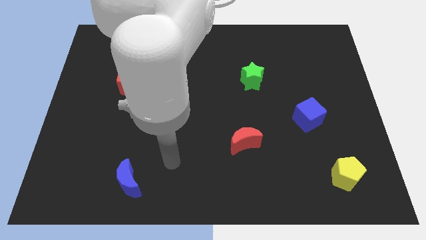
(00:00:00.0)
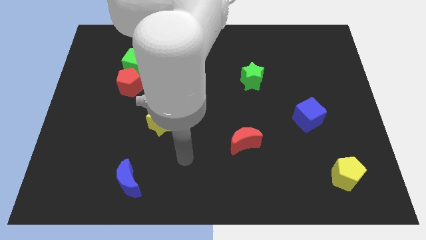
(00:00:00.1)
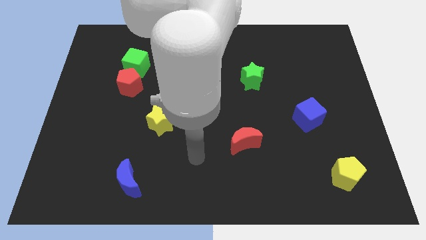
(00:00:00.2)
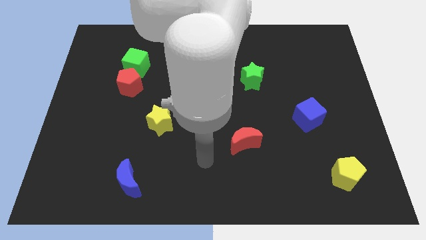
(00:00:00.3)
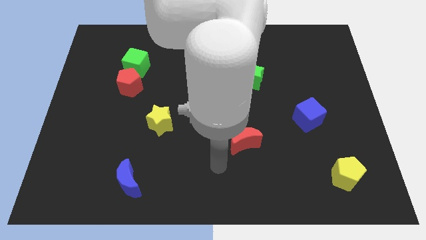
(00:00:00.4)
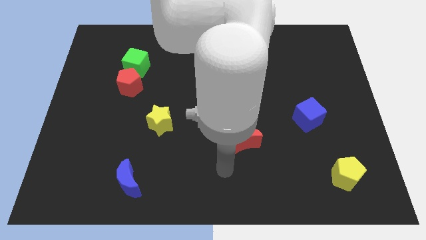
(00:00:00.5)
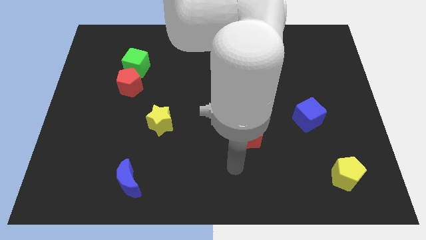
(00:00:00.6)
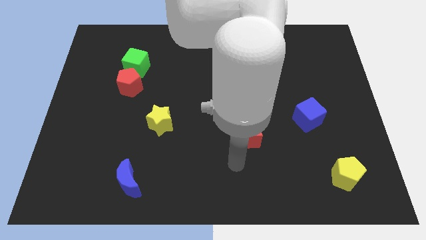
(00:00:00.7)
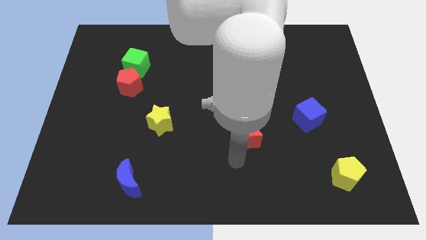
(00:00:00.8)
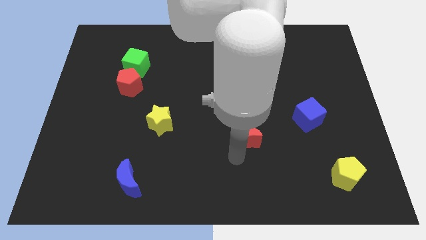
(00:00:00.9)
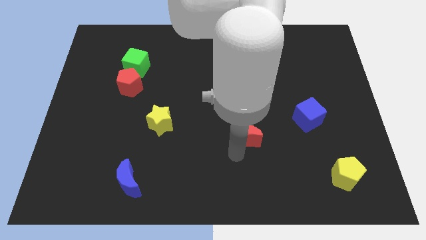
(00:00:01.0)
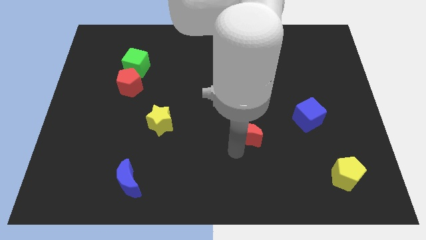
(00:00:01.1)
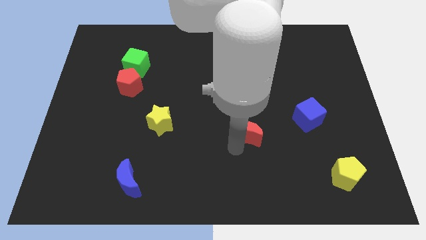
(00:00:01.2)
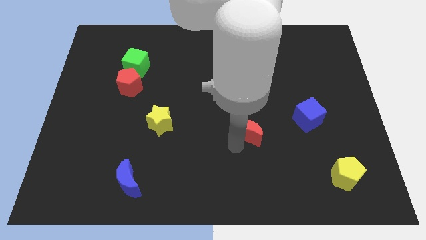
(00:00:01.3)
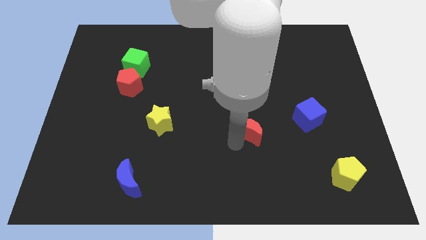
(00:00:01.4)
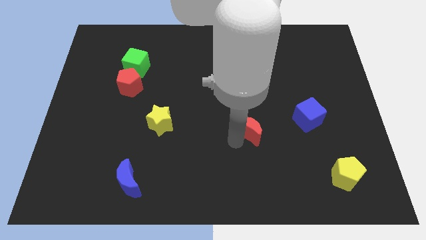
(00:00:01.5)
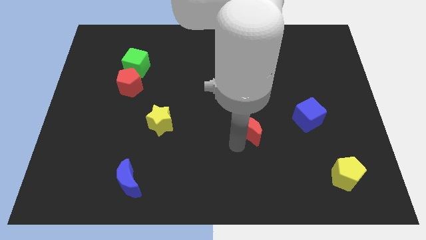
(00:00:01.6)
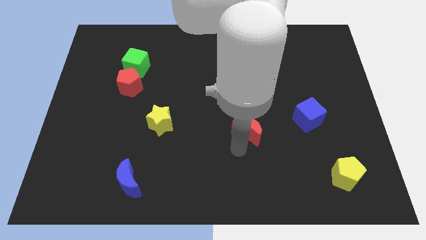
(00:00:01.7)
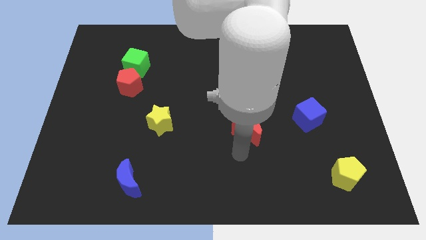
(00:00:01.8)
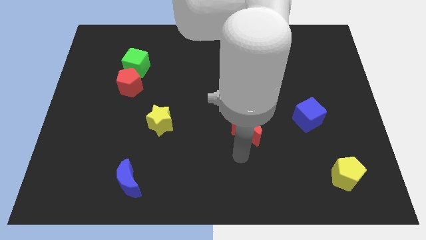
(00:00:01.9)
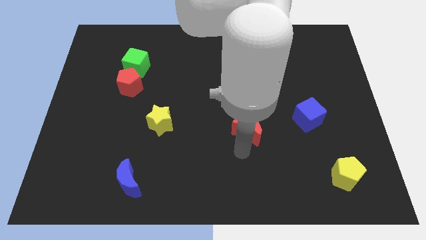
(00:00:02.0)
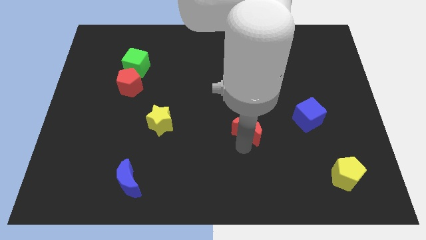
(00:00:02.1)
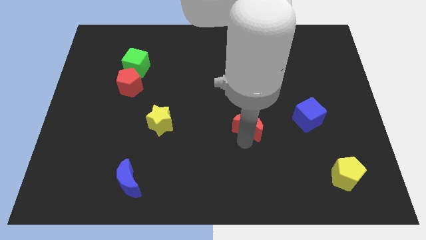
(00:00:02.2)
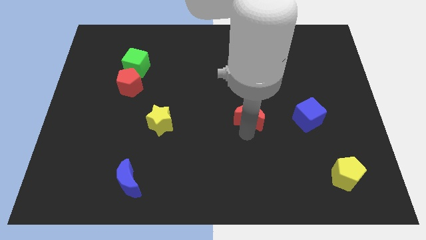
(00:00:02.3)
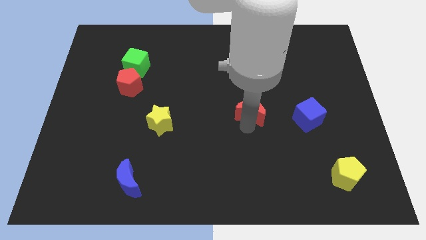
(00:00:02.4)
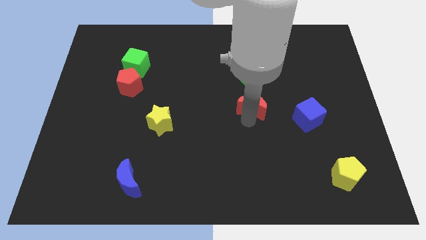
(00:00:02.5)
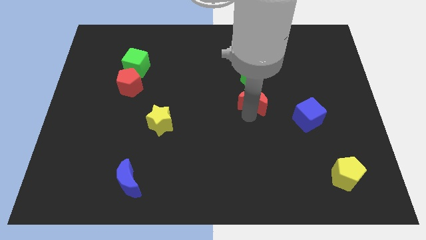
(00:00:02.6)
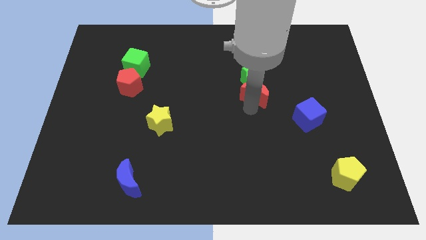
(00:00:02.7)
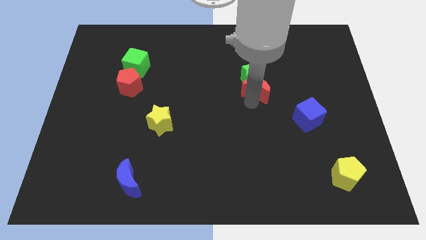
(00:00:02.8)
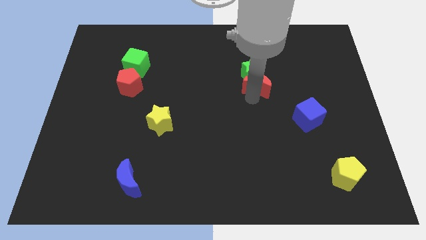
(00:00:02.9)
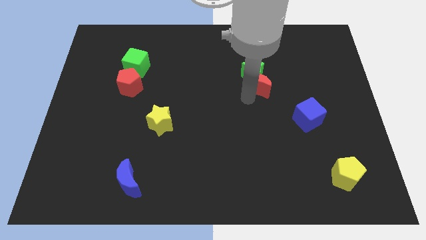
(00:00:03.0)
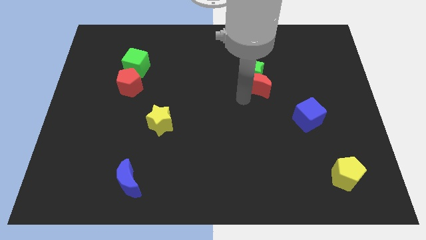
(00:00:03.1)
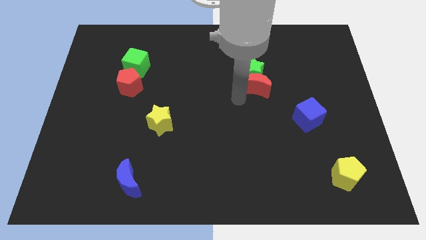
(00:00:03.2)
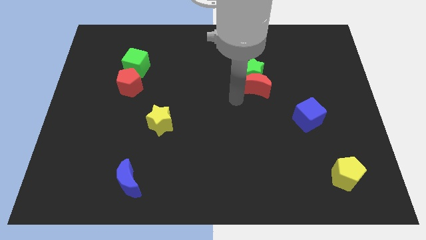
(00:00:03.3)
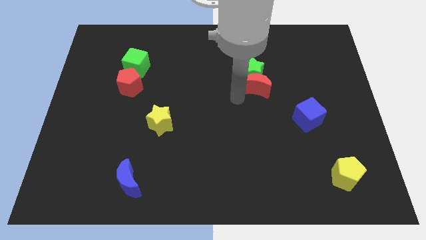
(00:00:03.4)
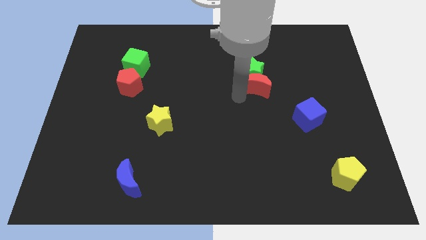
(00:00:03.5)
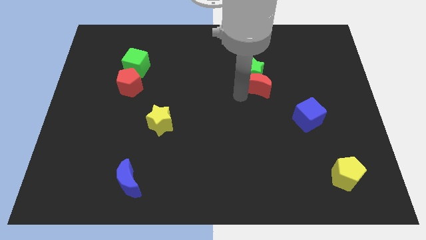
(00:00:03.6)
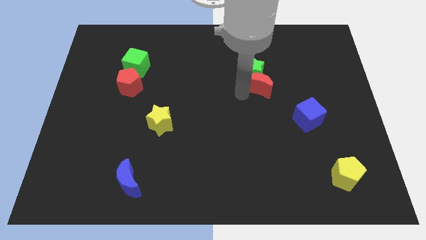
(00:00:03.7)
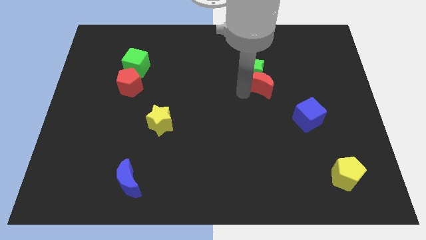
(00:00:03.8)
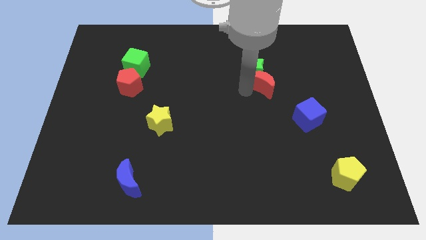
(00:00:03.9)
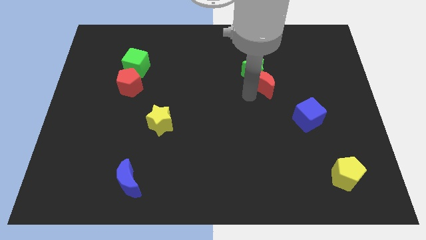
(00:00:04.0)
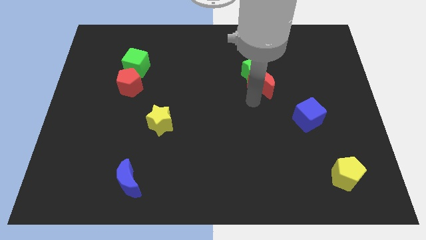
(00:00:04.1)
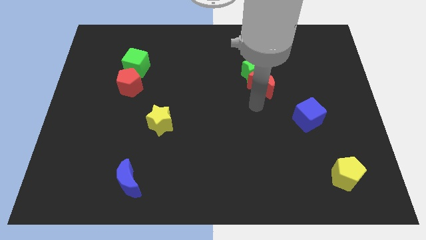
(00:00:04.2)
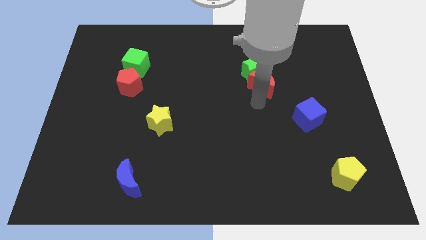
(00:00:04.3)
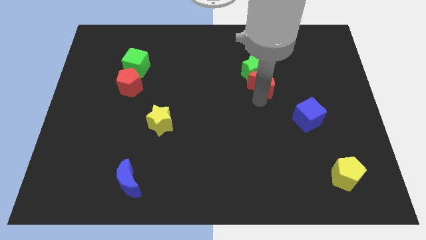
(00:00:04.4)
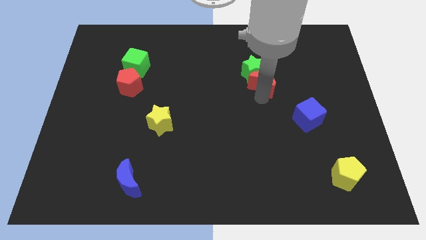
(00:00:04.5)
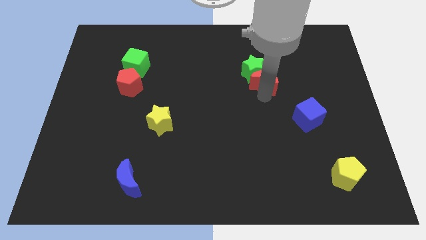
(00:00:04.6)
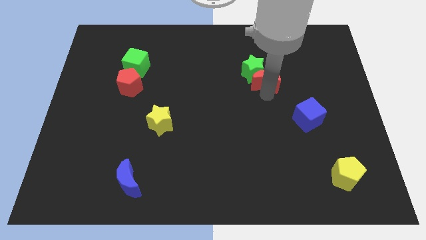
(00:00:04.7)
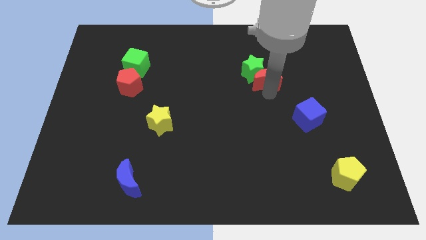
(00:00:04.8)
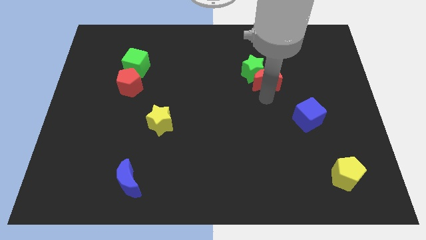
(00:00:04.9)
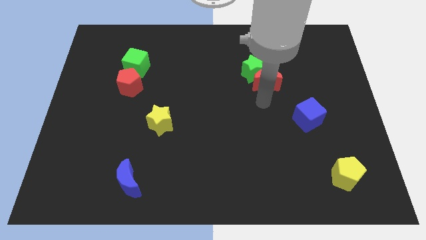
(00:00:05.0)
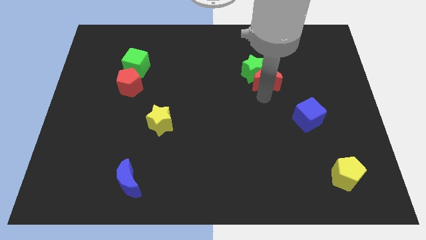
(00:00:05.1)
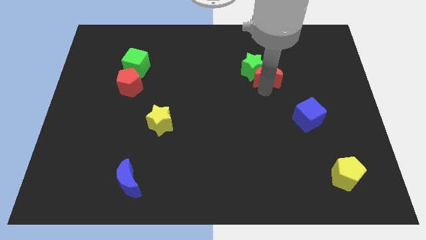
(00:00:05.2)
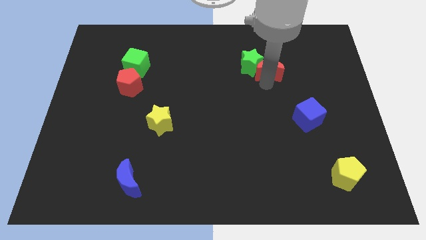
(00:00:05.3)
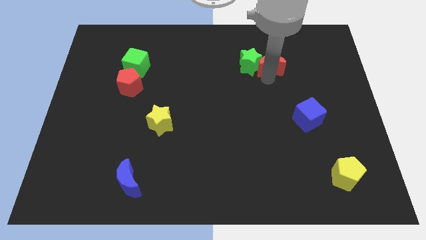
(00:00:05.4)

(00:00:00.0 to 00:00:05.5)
push the red moon diagonally up and to the right of the green star

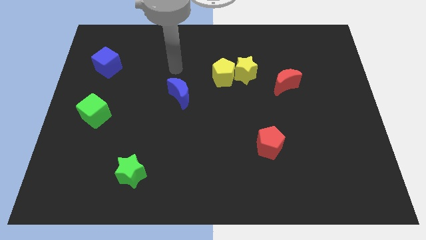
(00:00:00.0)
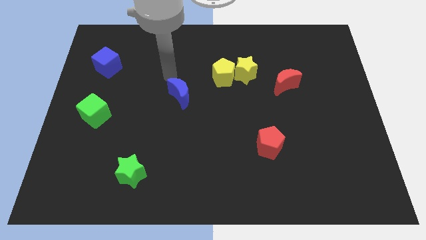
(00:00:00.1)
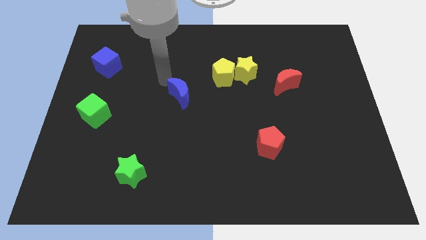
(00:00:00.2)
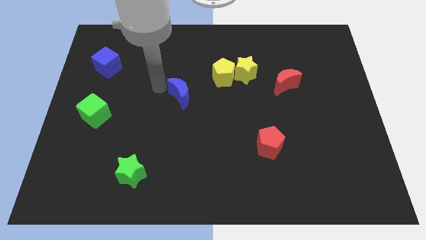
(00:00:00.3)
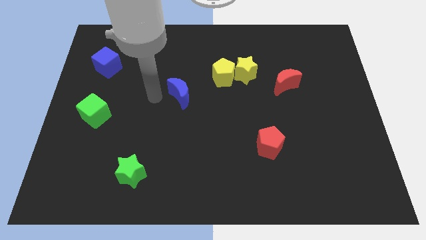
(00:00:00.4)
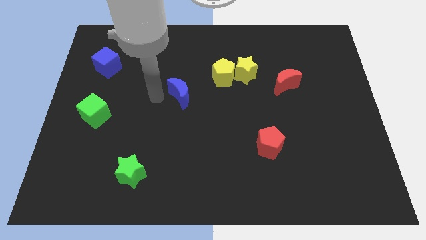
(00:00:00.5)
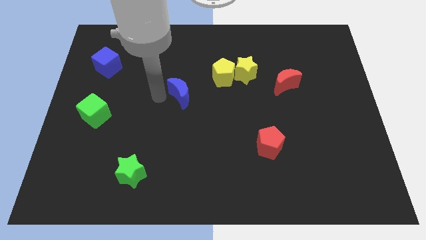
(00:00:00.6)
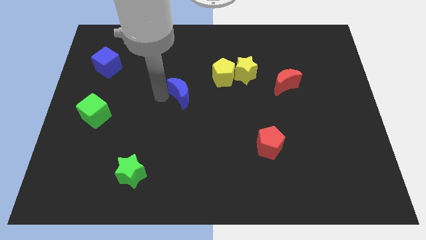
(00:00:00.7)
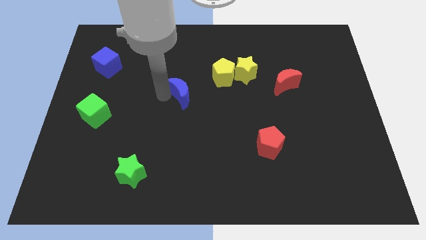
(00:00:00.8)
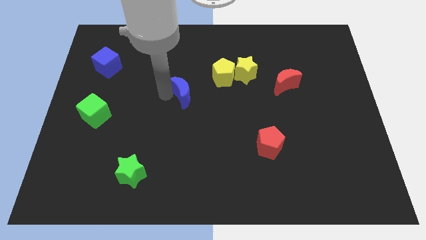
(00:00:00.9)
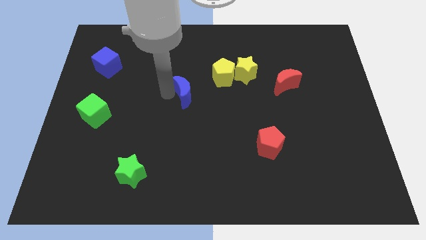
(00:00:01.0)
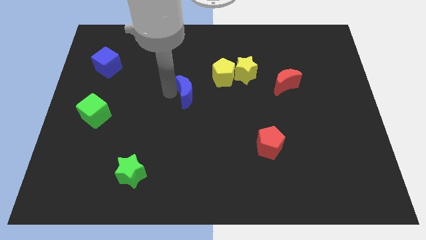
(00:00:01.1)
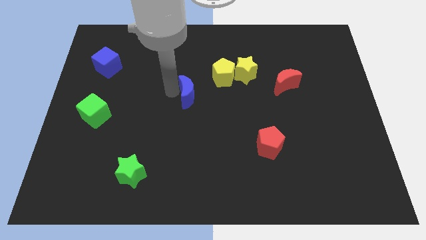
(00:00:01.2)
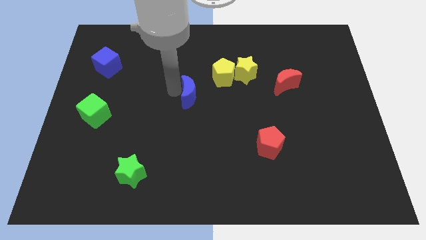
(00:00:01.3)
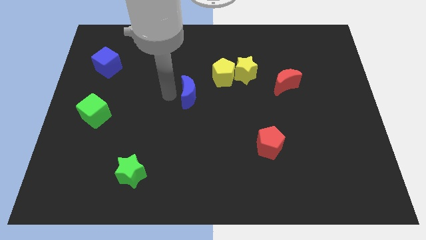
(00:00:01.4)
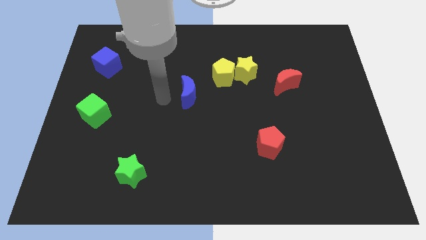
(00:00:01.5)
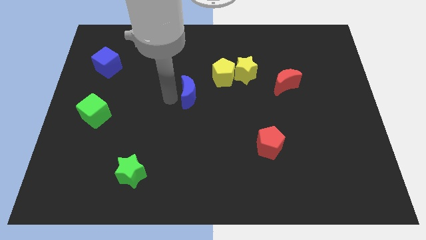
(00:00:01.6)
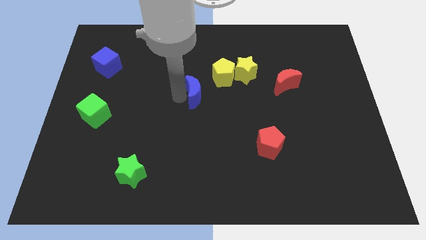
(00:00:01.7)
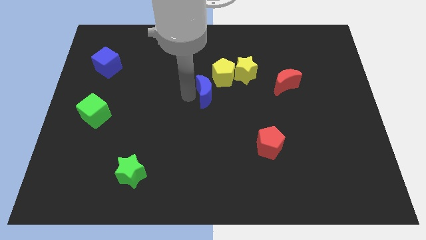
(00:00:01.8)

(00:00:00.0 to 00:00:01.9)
slide the blue moon to the bottom left of the yellow star
